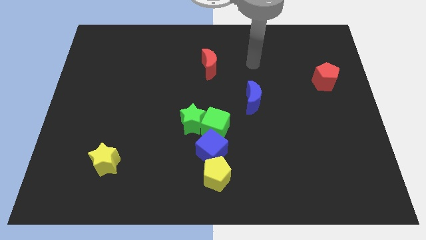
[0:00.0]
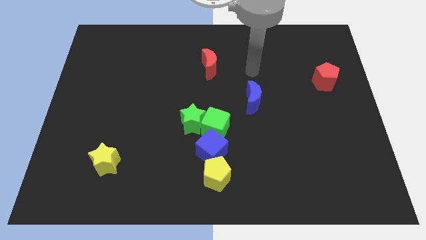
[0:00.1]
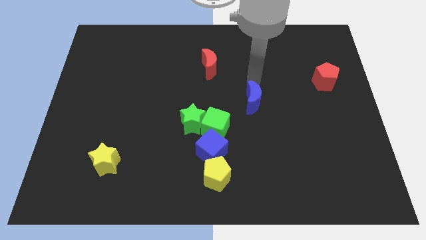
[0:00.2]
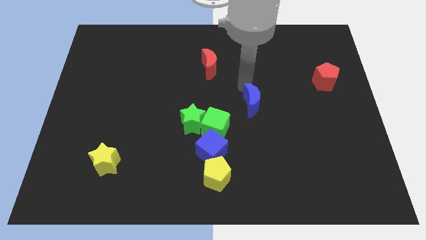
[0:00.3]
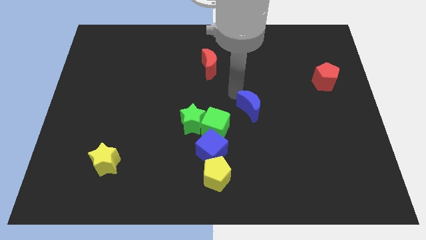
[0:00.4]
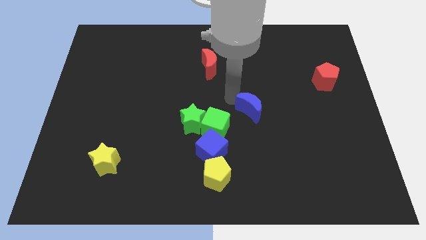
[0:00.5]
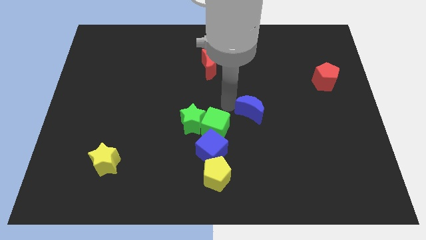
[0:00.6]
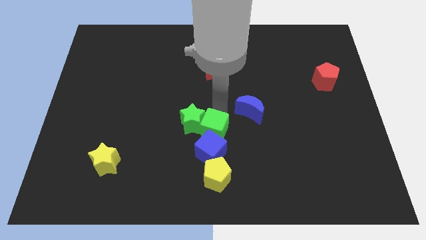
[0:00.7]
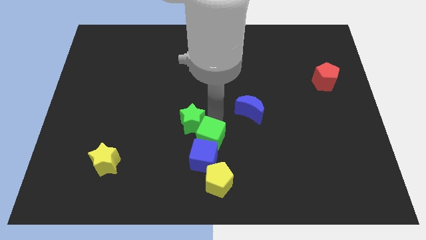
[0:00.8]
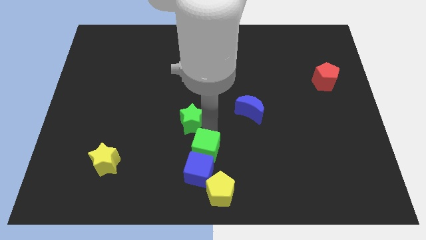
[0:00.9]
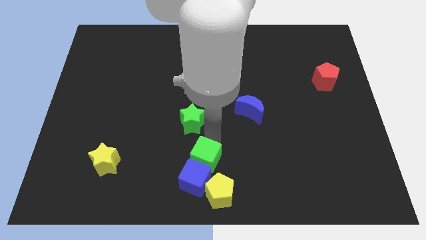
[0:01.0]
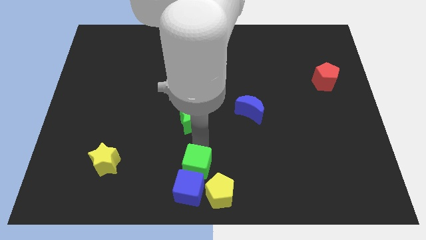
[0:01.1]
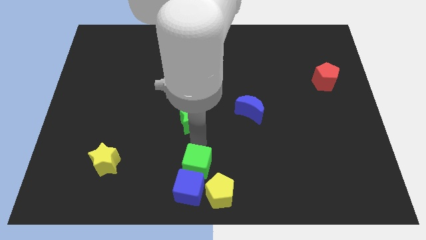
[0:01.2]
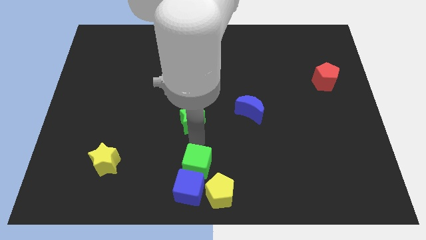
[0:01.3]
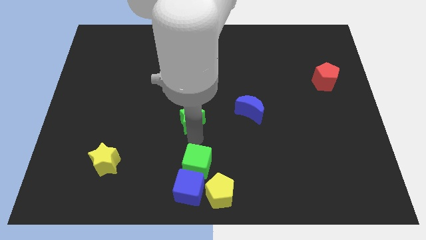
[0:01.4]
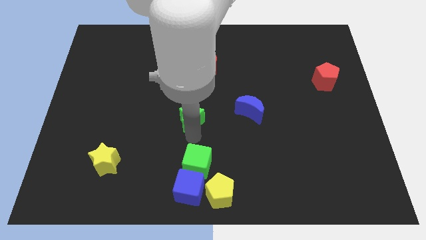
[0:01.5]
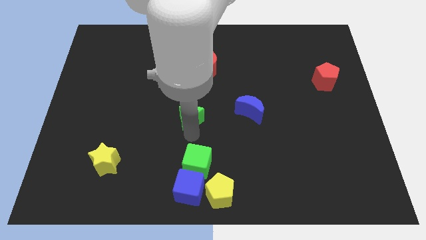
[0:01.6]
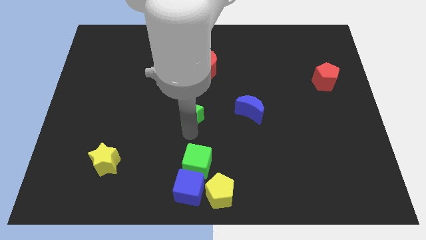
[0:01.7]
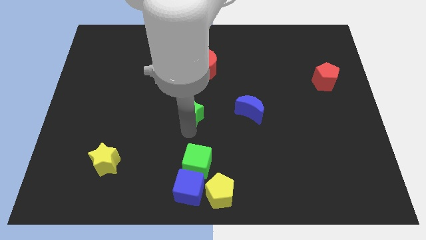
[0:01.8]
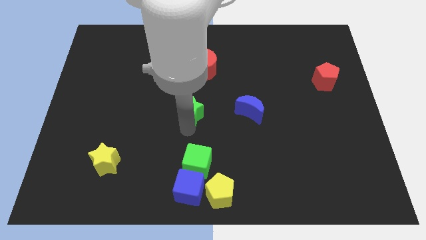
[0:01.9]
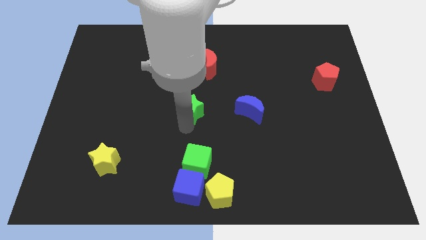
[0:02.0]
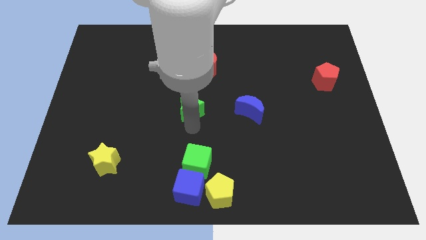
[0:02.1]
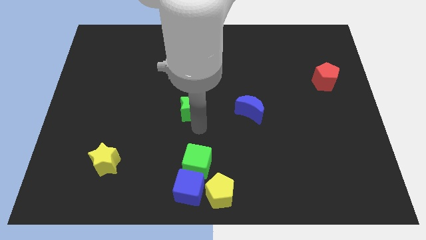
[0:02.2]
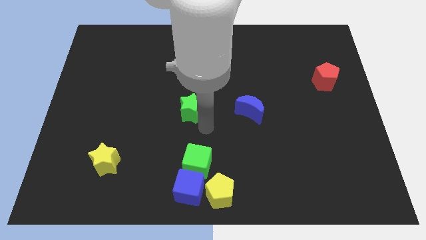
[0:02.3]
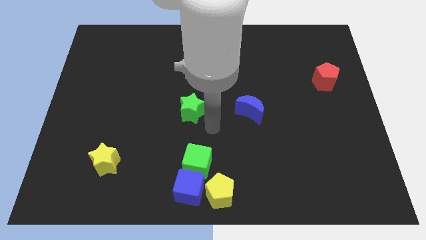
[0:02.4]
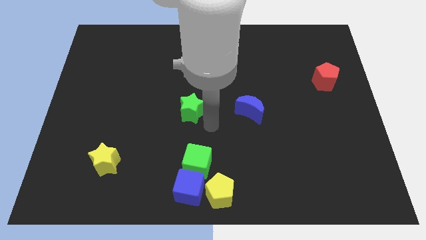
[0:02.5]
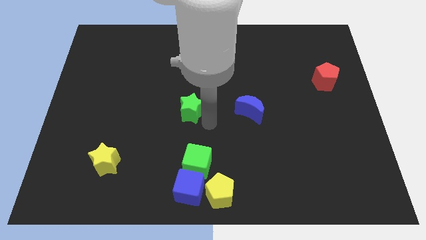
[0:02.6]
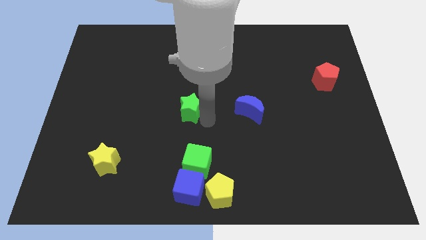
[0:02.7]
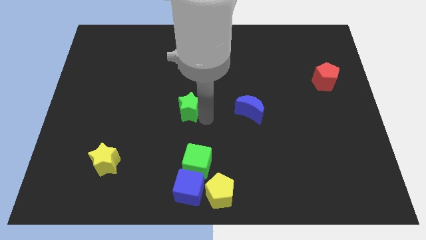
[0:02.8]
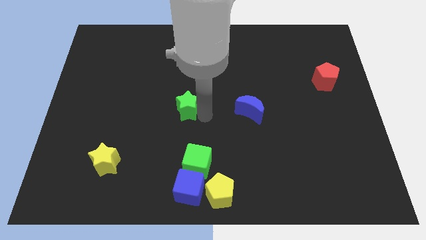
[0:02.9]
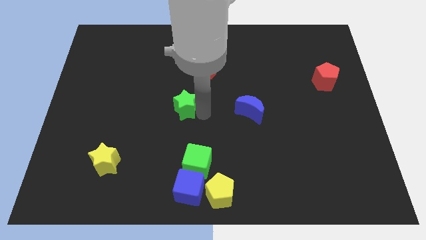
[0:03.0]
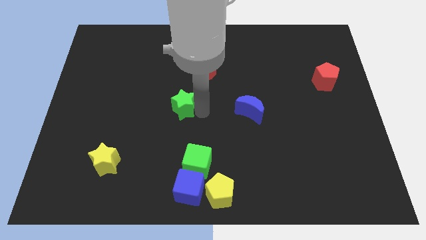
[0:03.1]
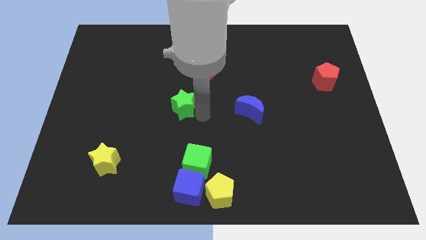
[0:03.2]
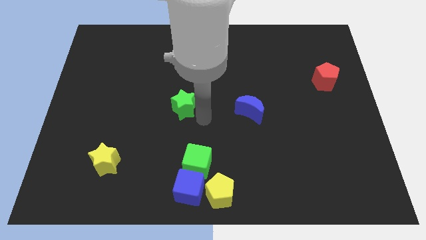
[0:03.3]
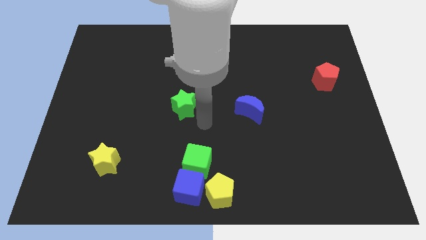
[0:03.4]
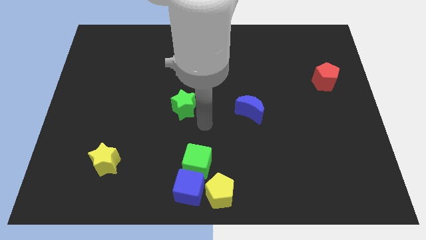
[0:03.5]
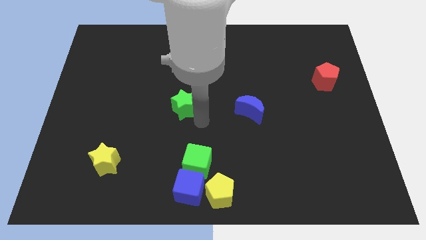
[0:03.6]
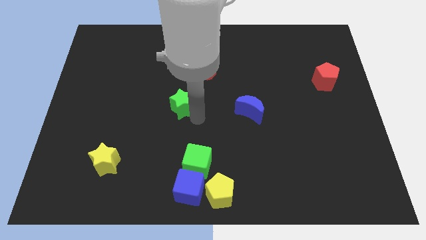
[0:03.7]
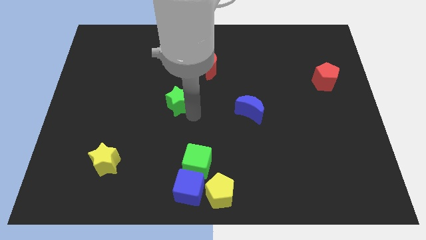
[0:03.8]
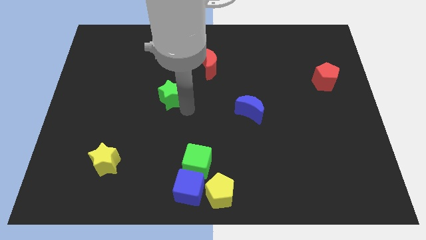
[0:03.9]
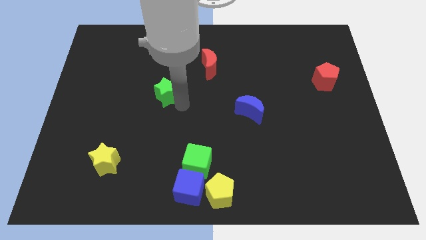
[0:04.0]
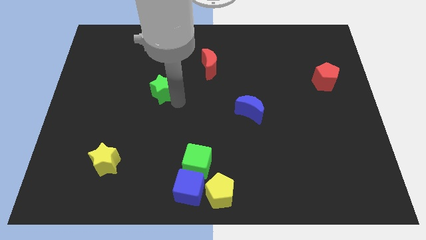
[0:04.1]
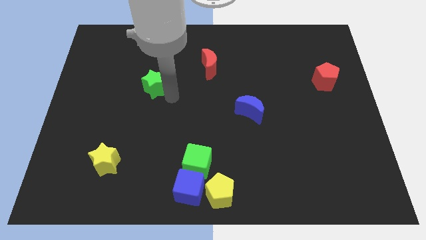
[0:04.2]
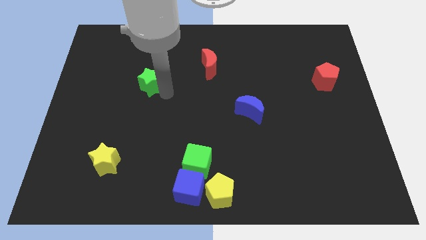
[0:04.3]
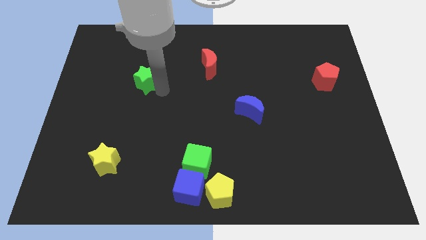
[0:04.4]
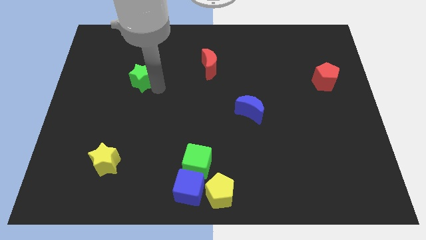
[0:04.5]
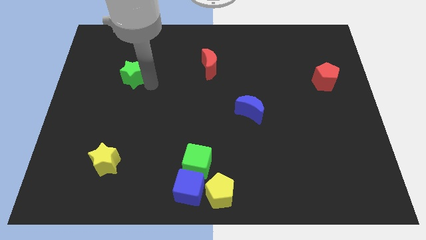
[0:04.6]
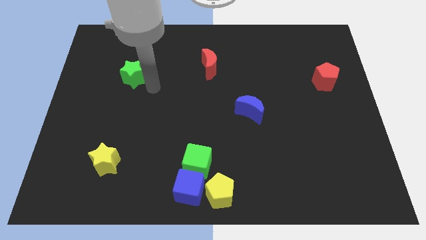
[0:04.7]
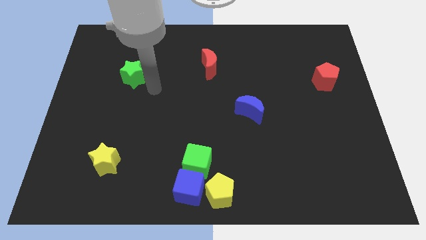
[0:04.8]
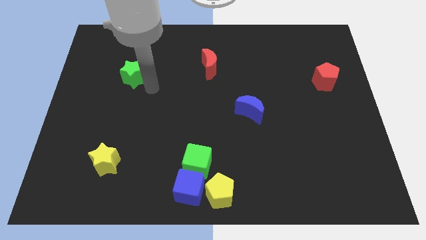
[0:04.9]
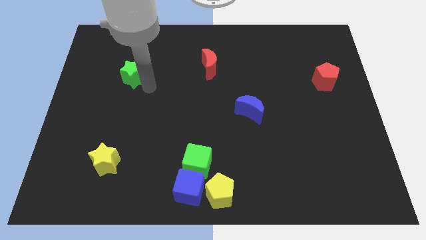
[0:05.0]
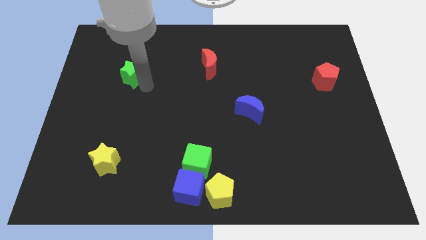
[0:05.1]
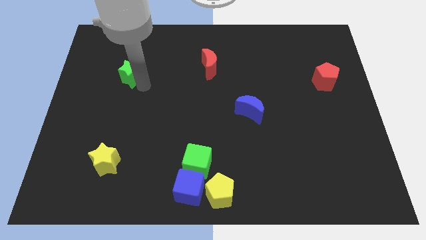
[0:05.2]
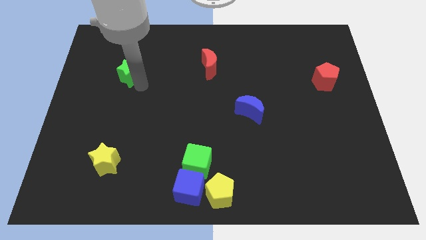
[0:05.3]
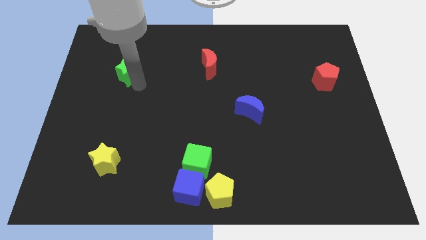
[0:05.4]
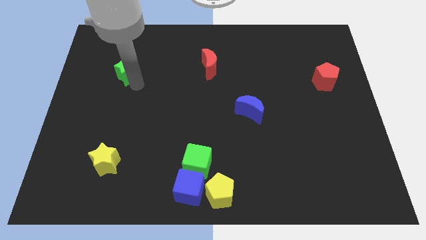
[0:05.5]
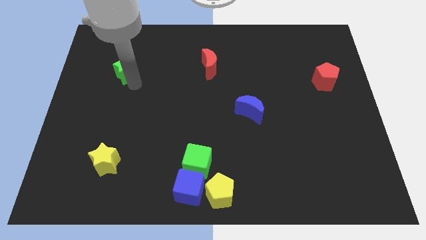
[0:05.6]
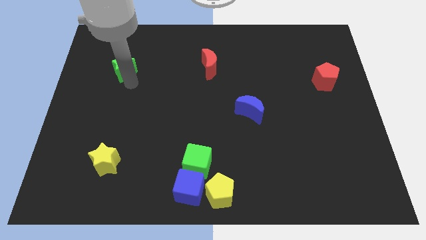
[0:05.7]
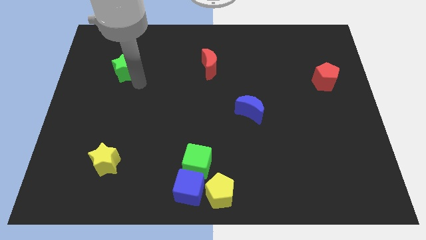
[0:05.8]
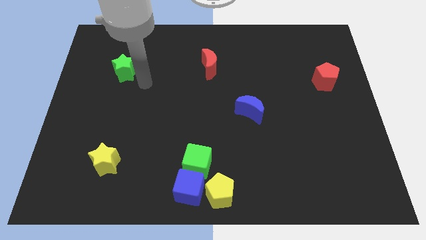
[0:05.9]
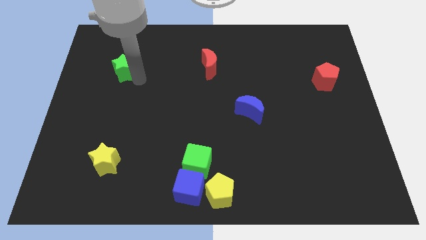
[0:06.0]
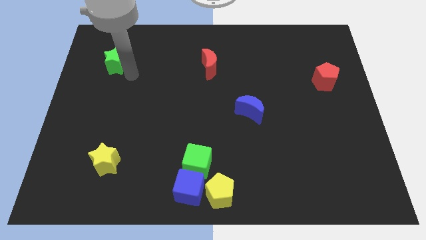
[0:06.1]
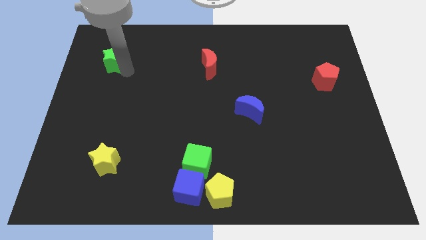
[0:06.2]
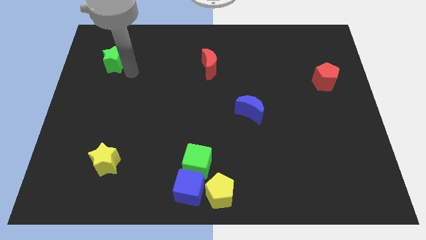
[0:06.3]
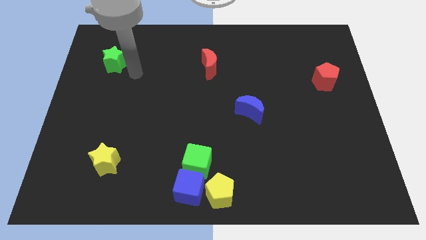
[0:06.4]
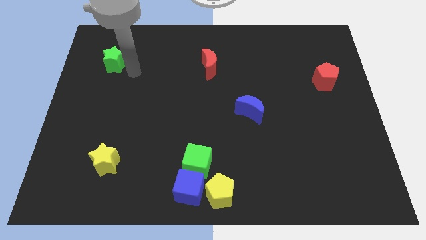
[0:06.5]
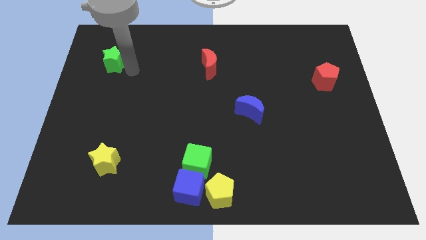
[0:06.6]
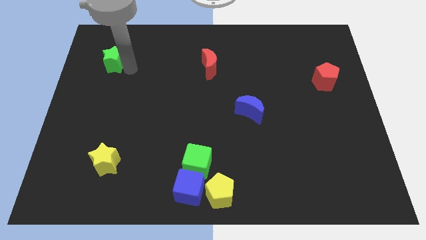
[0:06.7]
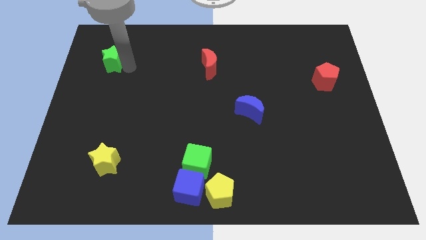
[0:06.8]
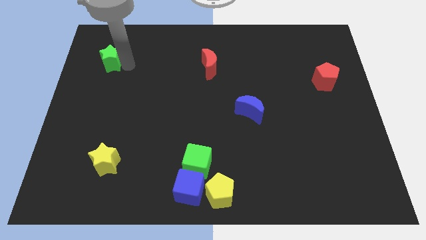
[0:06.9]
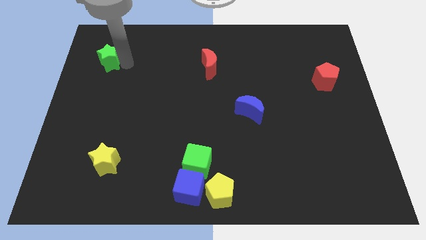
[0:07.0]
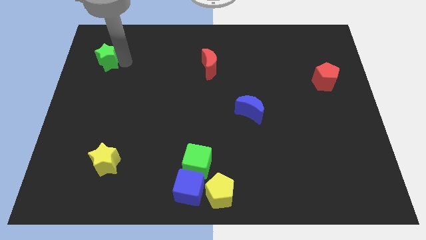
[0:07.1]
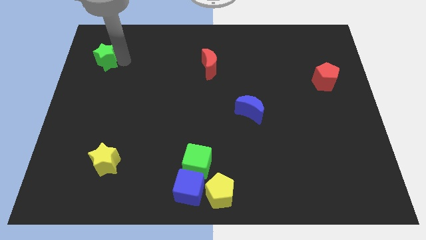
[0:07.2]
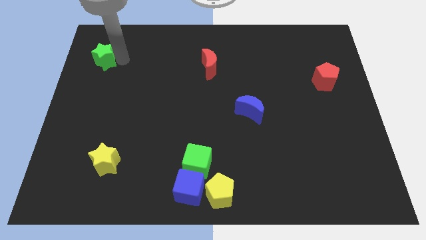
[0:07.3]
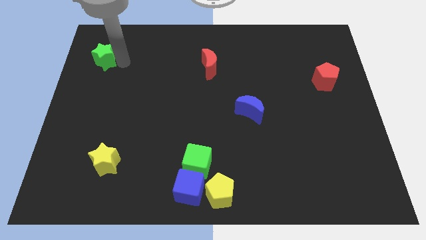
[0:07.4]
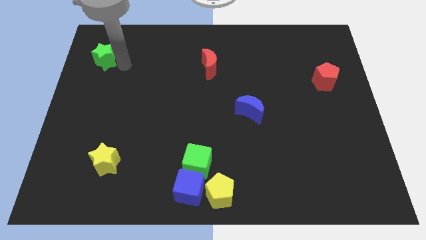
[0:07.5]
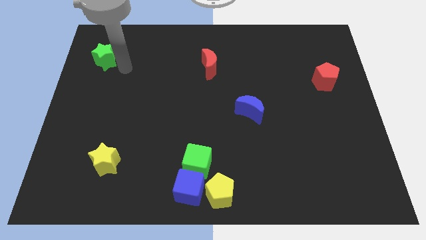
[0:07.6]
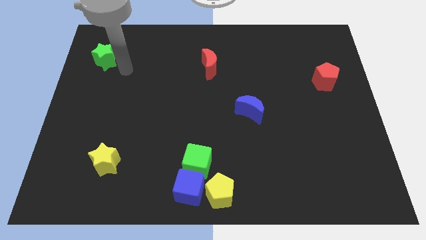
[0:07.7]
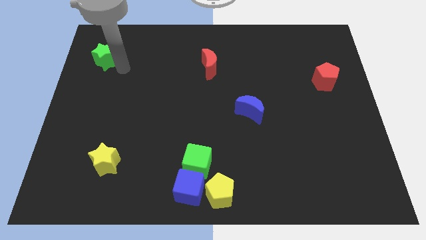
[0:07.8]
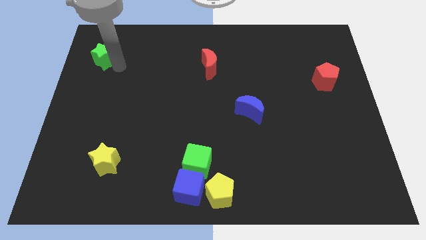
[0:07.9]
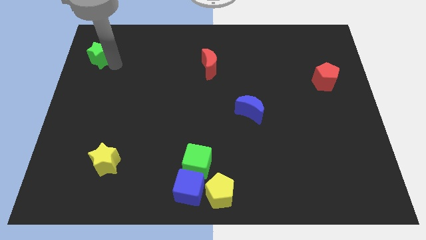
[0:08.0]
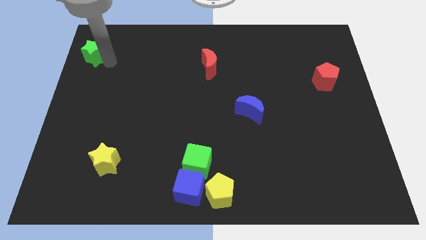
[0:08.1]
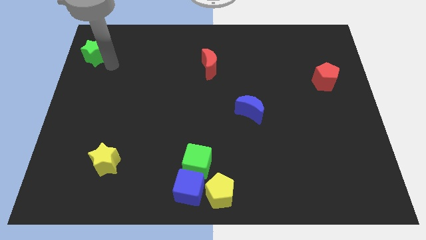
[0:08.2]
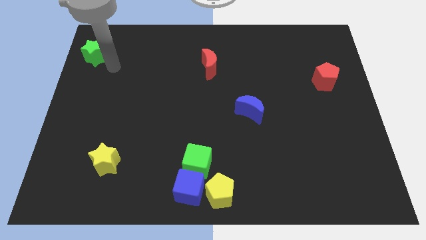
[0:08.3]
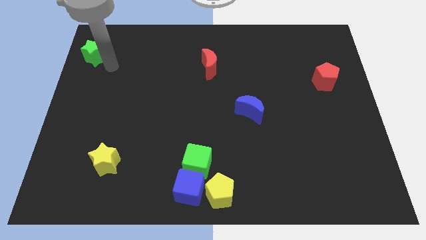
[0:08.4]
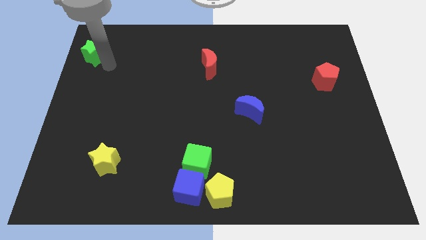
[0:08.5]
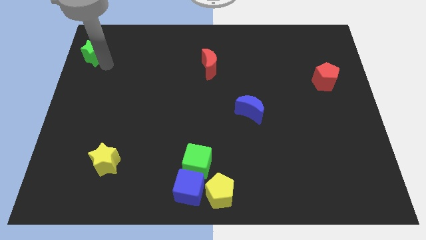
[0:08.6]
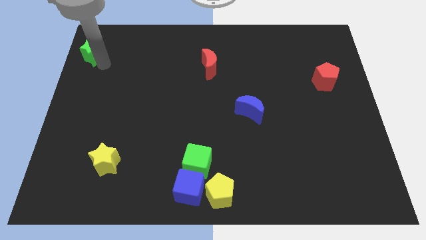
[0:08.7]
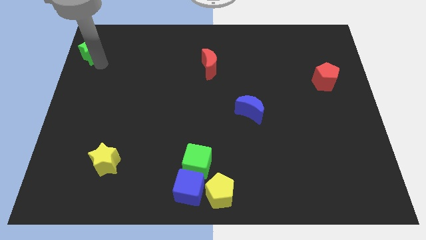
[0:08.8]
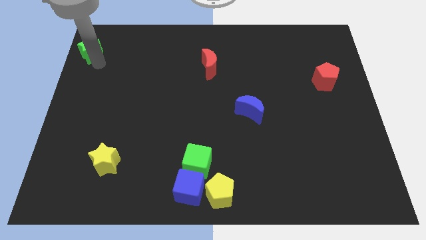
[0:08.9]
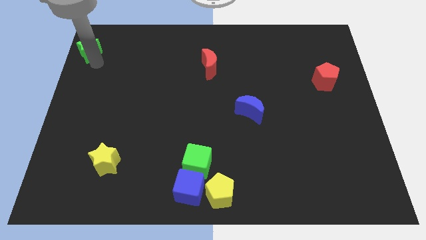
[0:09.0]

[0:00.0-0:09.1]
push the green star to the top left
